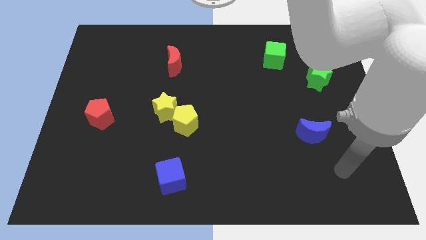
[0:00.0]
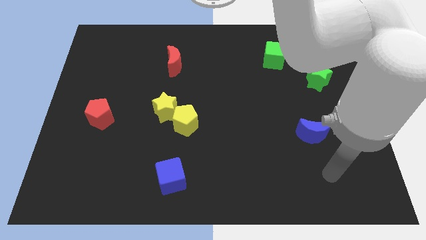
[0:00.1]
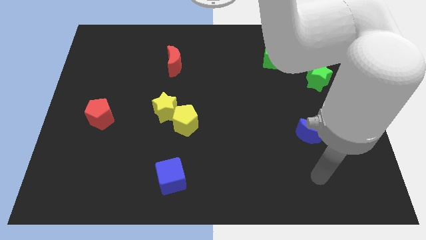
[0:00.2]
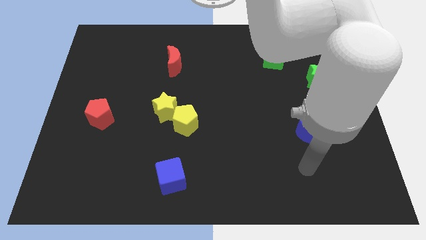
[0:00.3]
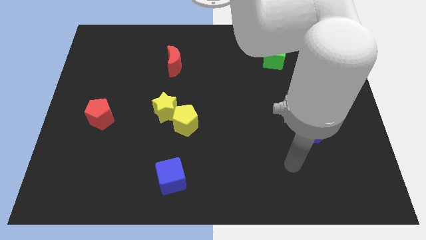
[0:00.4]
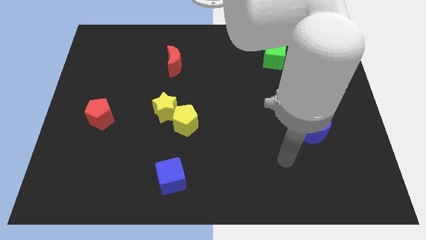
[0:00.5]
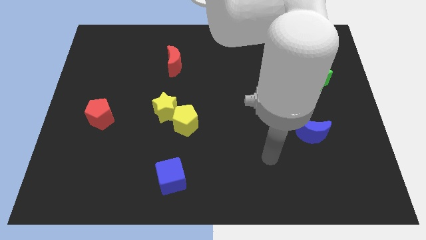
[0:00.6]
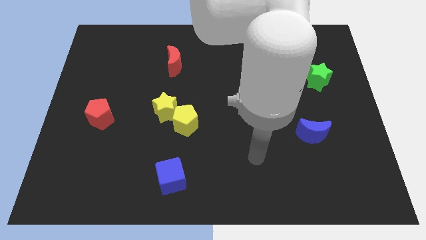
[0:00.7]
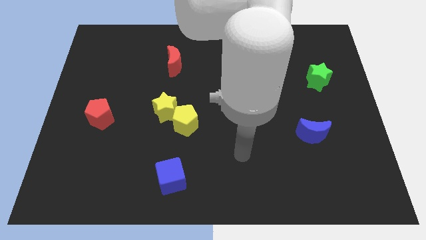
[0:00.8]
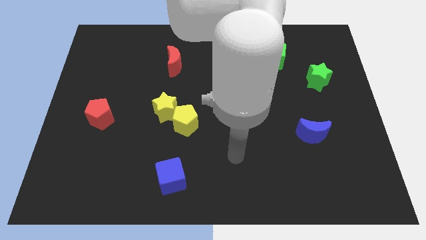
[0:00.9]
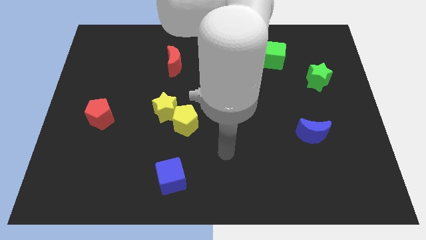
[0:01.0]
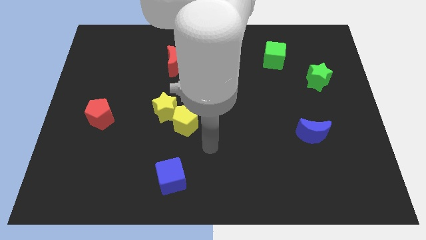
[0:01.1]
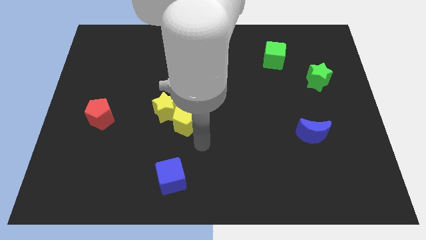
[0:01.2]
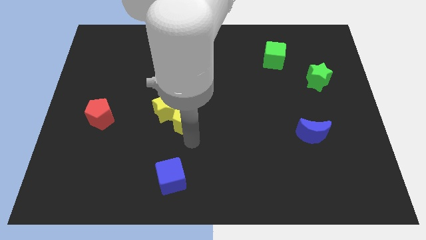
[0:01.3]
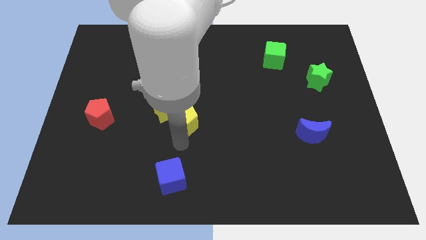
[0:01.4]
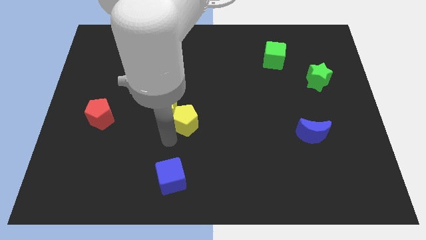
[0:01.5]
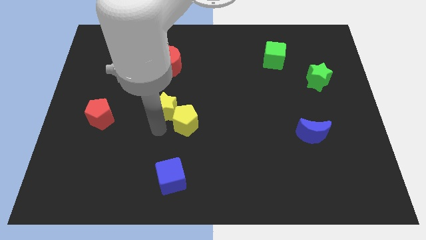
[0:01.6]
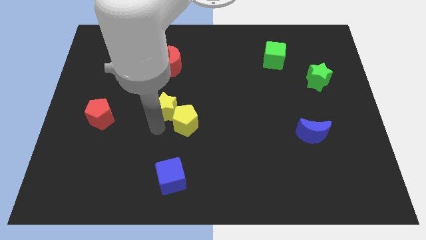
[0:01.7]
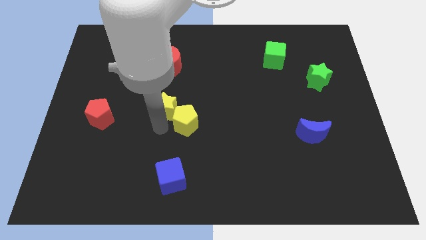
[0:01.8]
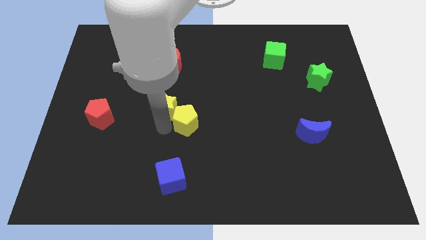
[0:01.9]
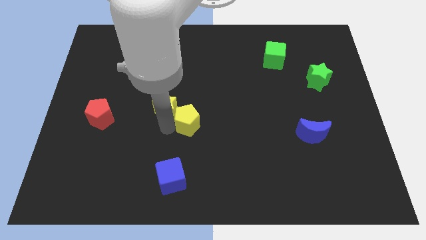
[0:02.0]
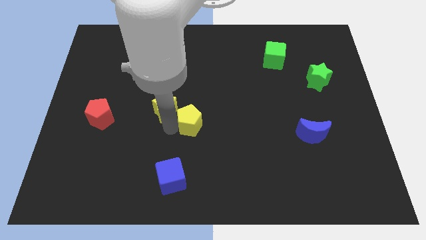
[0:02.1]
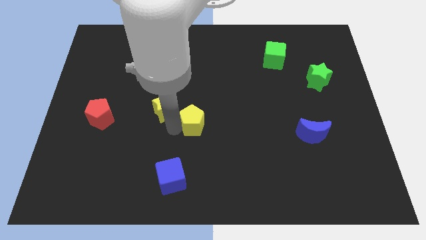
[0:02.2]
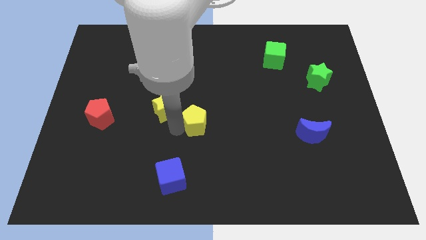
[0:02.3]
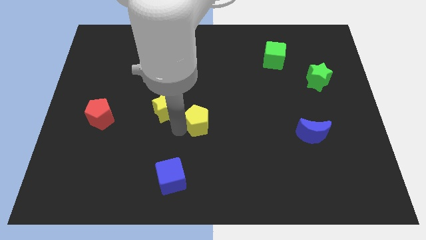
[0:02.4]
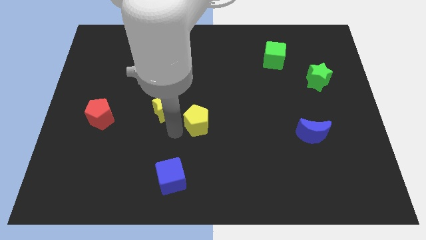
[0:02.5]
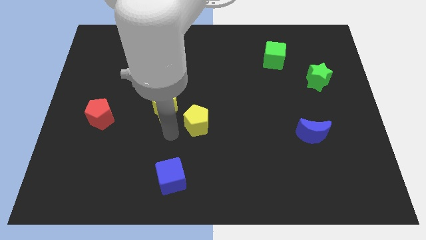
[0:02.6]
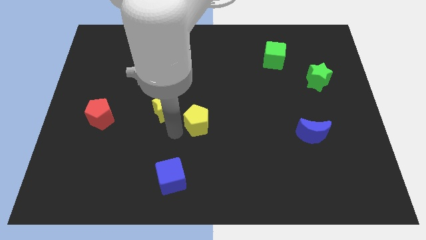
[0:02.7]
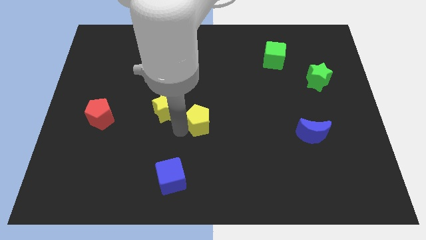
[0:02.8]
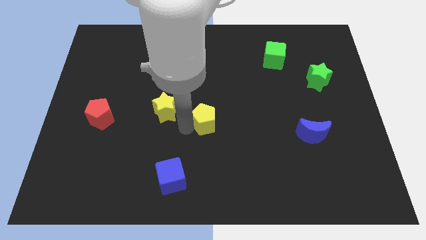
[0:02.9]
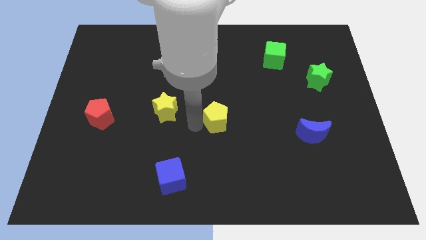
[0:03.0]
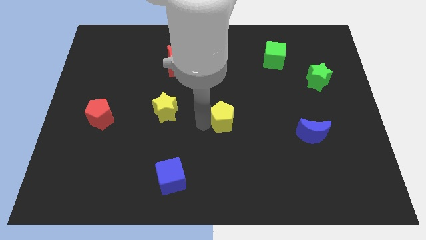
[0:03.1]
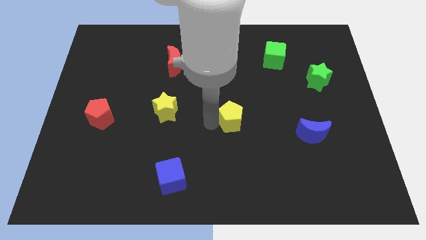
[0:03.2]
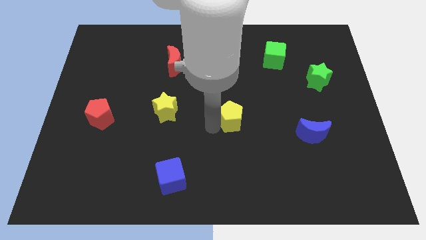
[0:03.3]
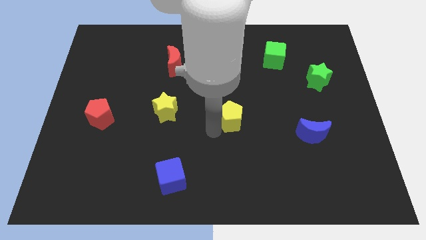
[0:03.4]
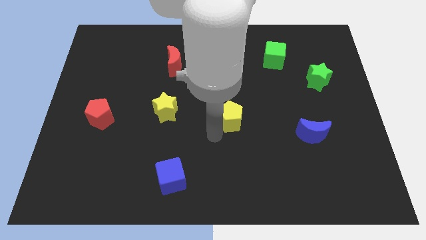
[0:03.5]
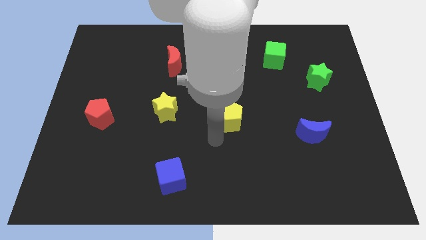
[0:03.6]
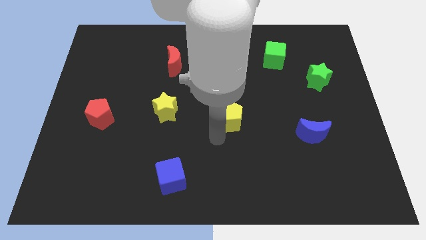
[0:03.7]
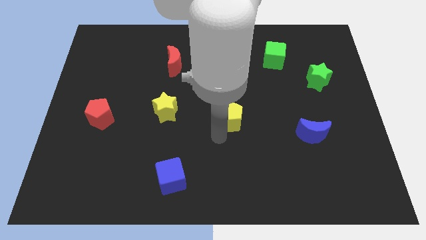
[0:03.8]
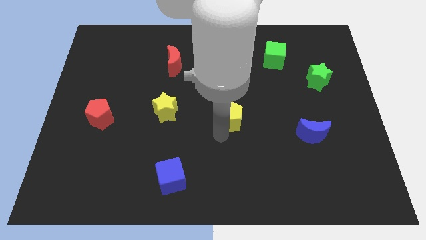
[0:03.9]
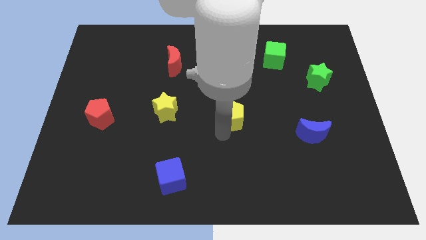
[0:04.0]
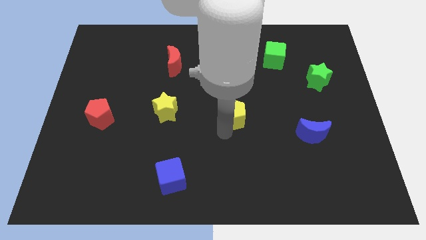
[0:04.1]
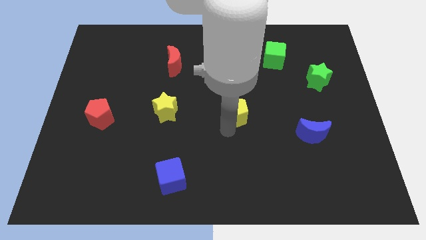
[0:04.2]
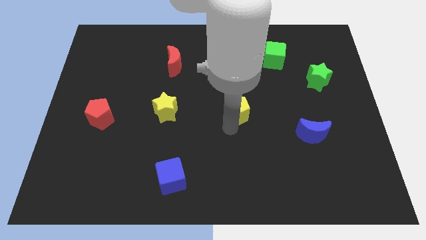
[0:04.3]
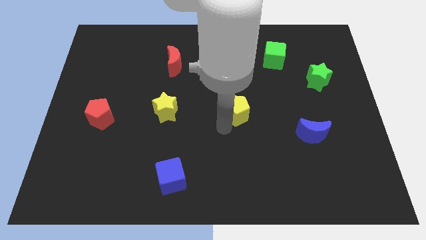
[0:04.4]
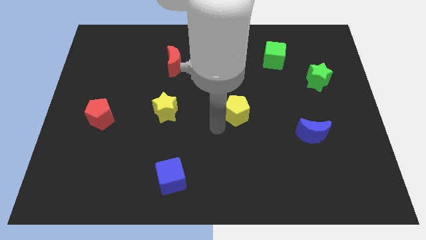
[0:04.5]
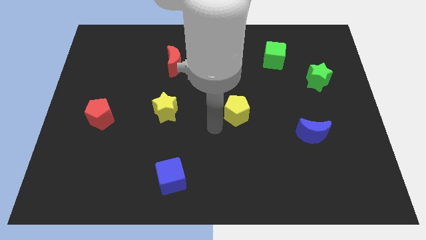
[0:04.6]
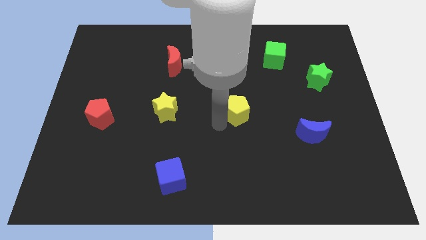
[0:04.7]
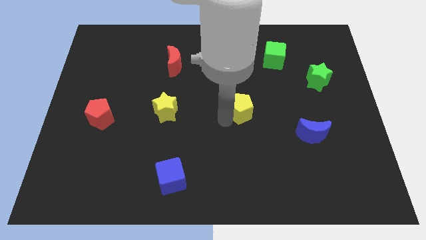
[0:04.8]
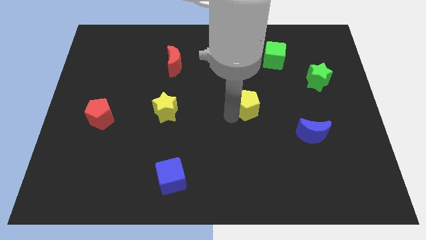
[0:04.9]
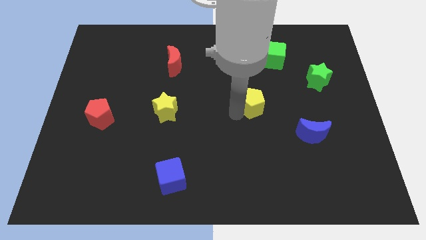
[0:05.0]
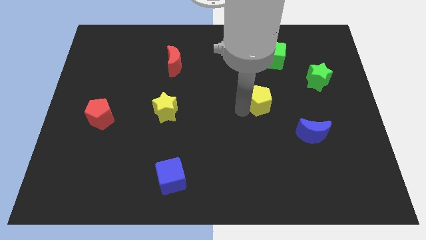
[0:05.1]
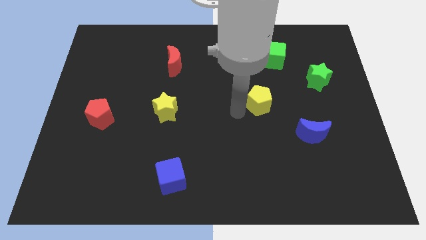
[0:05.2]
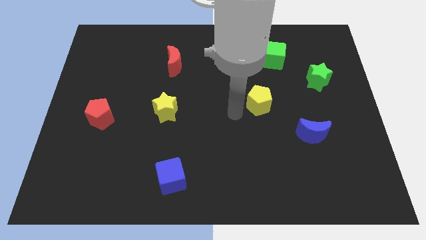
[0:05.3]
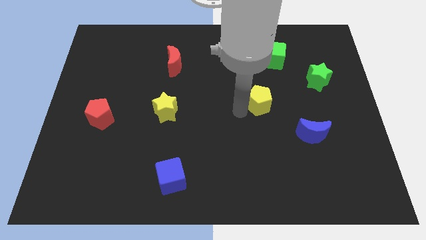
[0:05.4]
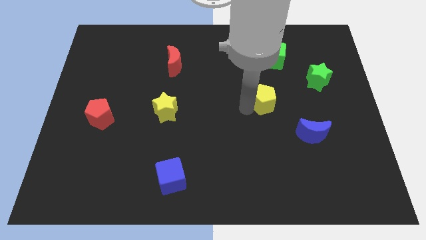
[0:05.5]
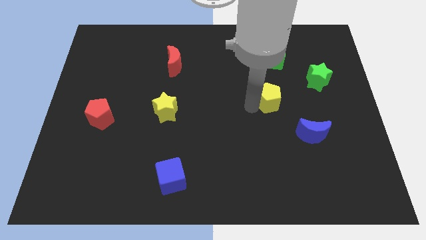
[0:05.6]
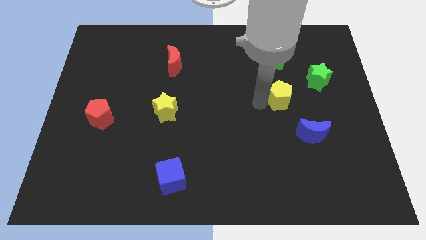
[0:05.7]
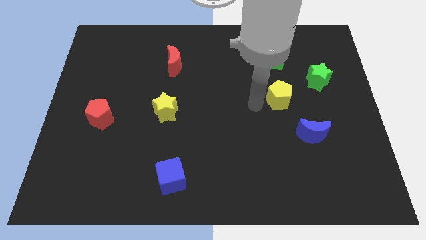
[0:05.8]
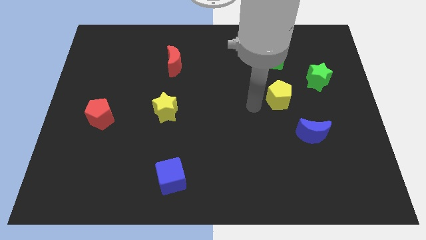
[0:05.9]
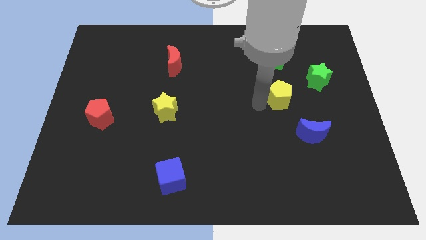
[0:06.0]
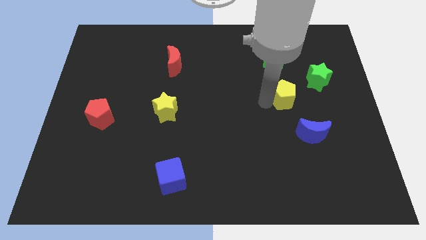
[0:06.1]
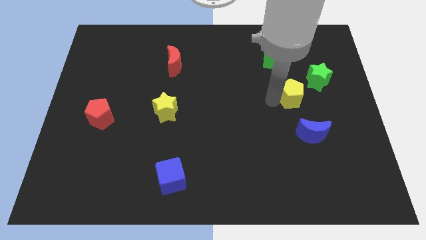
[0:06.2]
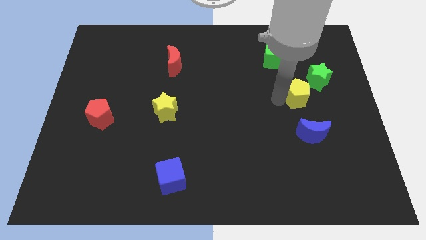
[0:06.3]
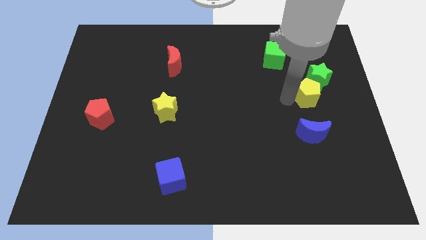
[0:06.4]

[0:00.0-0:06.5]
push the yellow pentagon close to the green star

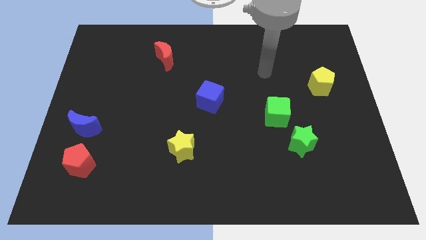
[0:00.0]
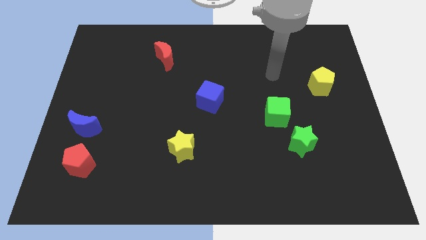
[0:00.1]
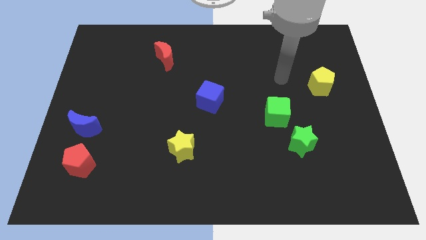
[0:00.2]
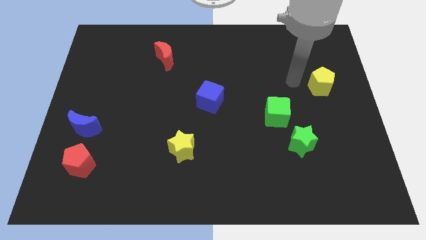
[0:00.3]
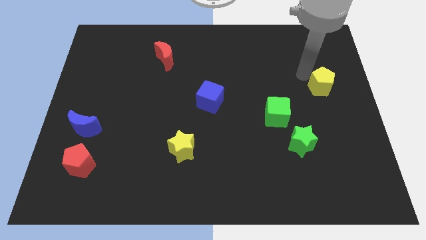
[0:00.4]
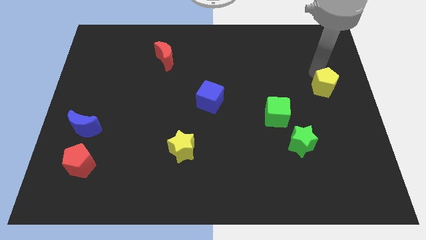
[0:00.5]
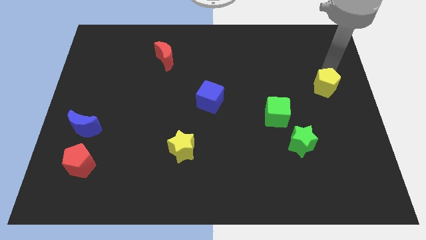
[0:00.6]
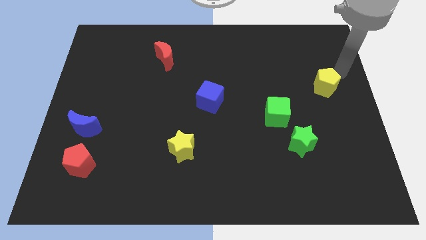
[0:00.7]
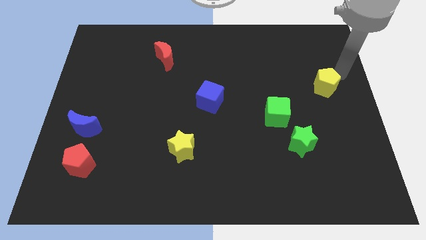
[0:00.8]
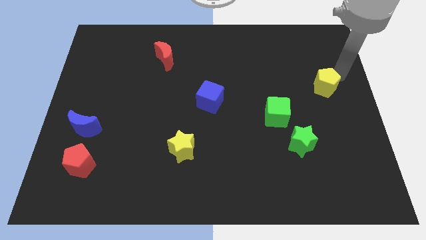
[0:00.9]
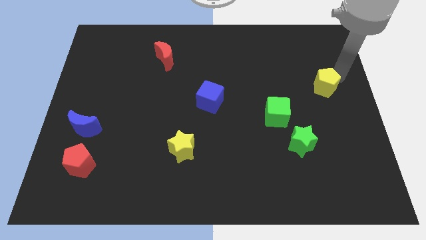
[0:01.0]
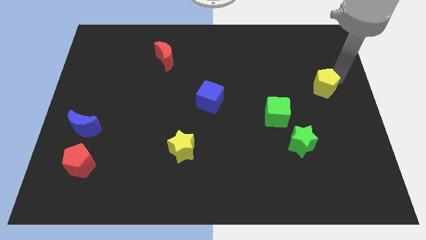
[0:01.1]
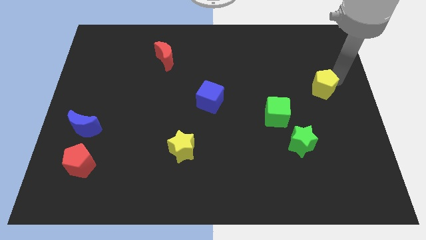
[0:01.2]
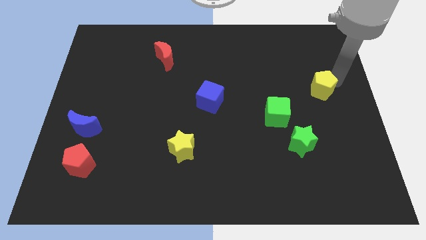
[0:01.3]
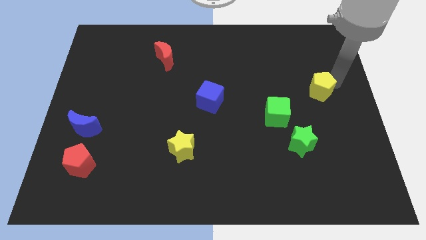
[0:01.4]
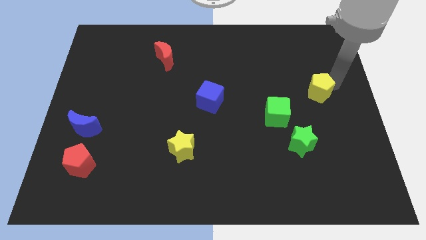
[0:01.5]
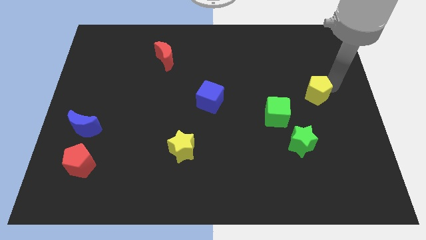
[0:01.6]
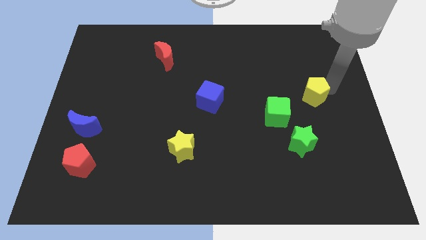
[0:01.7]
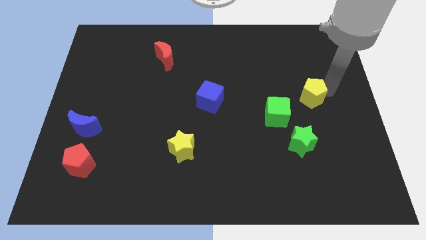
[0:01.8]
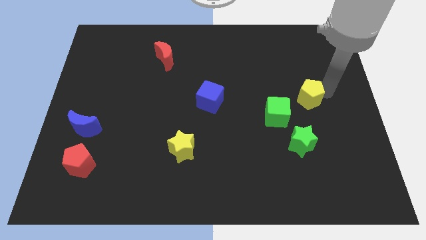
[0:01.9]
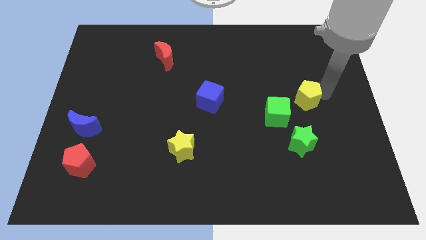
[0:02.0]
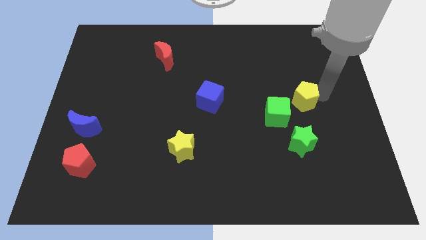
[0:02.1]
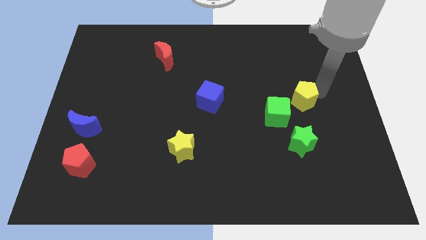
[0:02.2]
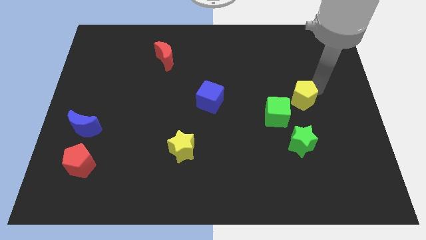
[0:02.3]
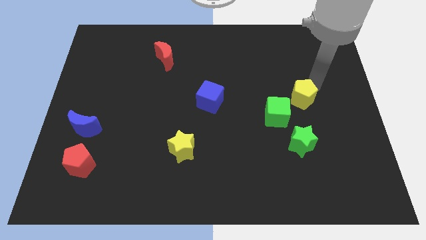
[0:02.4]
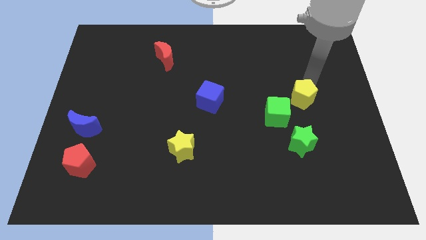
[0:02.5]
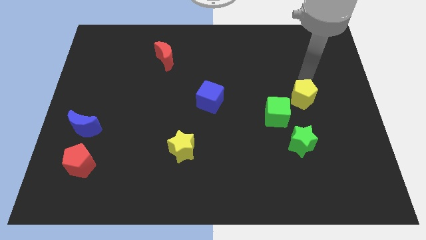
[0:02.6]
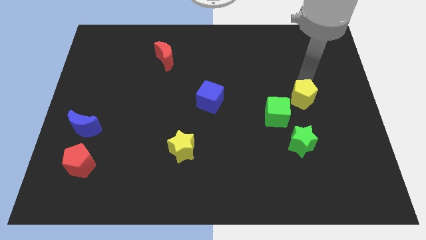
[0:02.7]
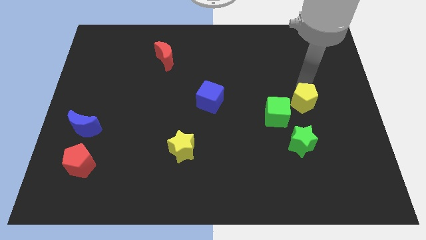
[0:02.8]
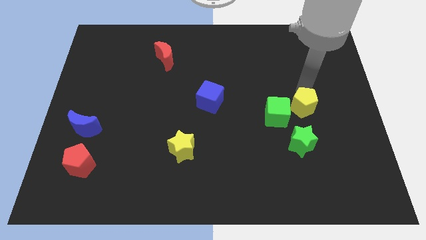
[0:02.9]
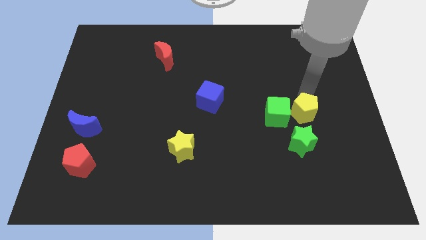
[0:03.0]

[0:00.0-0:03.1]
slide the yellow pentagon towards the green cube
